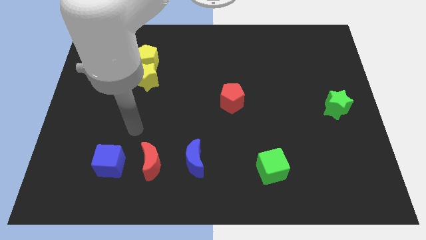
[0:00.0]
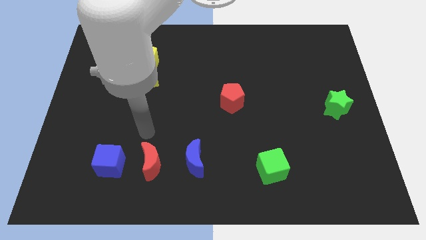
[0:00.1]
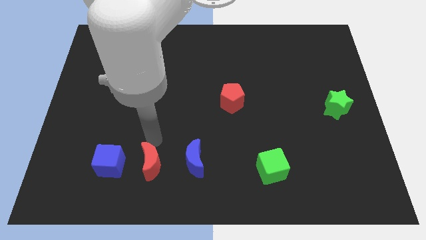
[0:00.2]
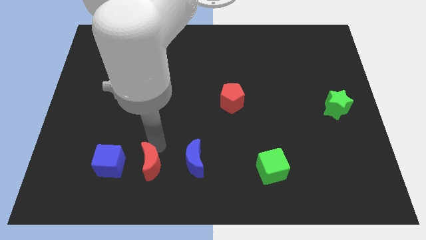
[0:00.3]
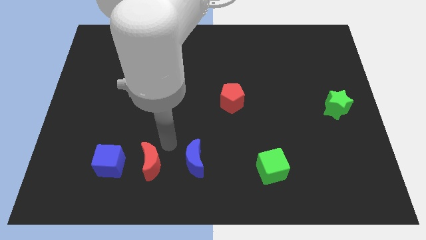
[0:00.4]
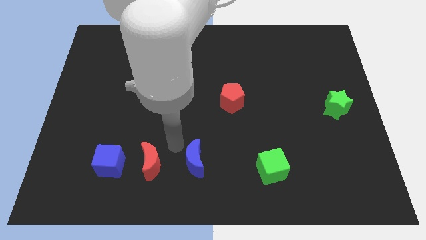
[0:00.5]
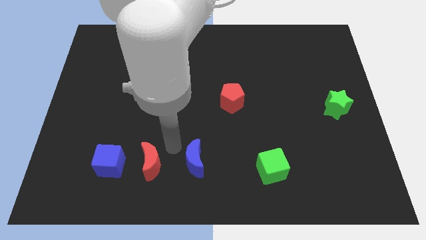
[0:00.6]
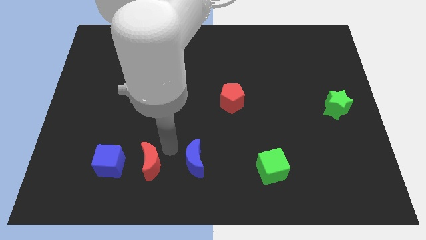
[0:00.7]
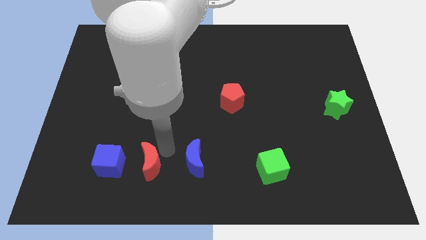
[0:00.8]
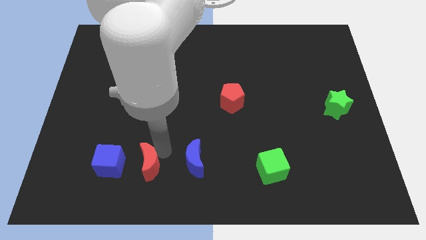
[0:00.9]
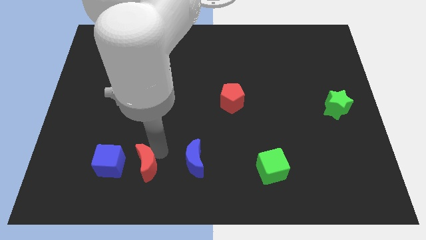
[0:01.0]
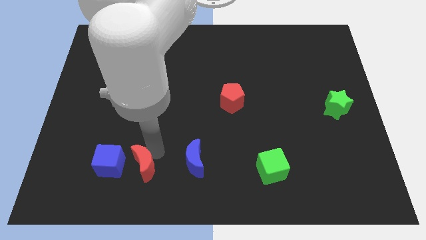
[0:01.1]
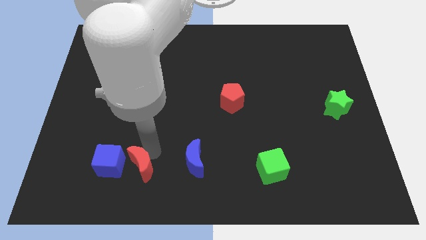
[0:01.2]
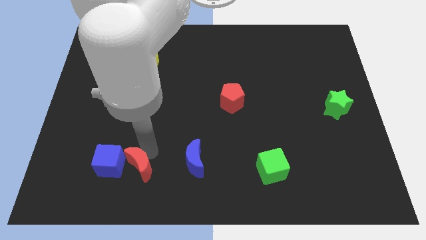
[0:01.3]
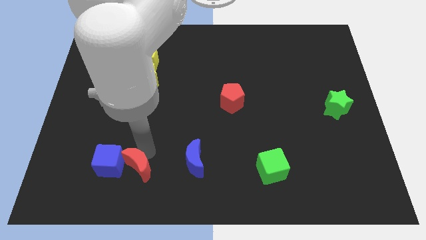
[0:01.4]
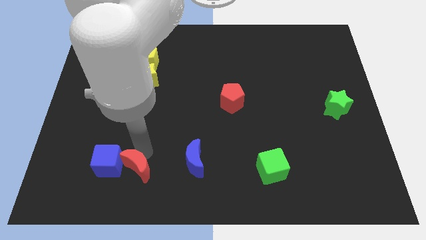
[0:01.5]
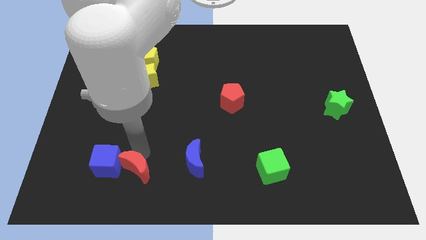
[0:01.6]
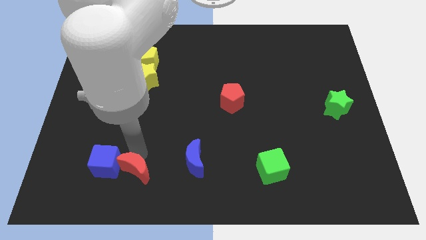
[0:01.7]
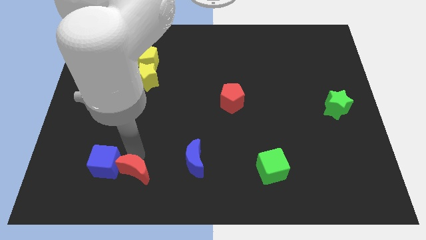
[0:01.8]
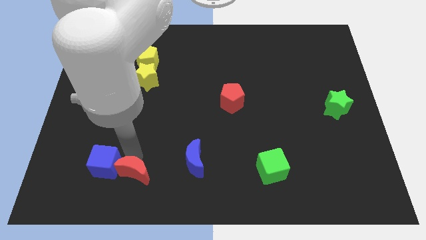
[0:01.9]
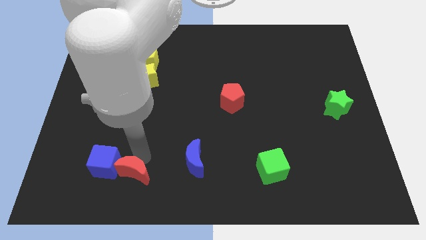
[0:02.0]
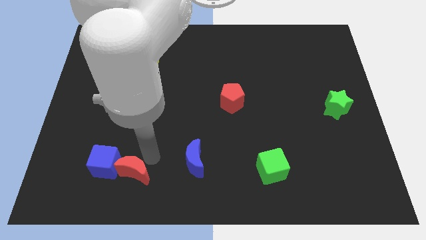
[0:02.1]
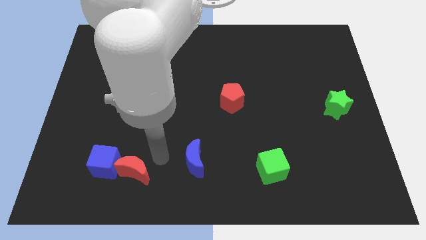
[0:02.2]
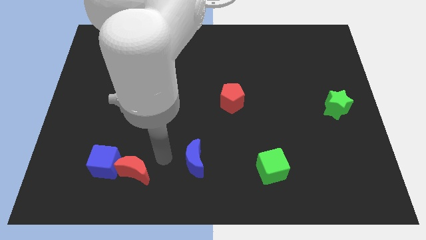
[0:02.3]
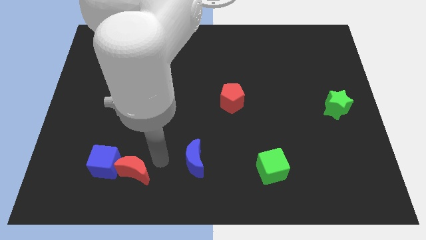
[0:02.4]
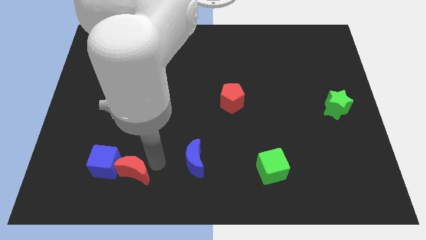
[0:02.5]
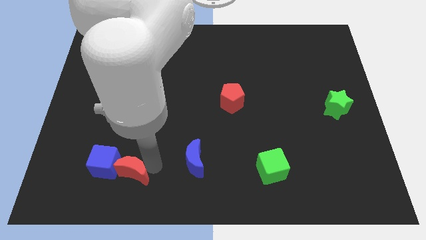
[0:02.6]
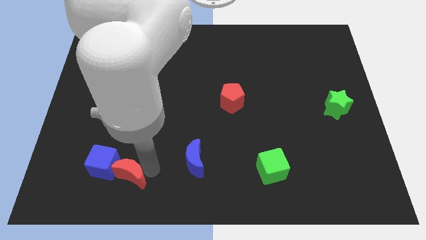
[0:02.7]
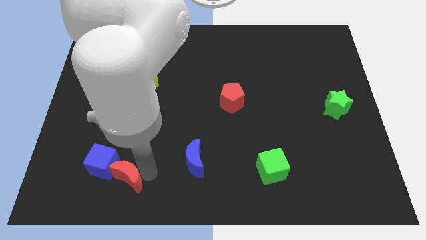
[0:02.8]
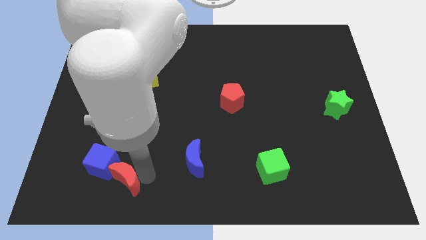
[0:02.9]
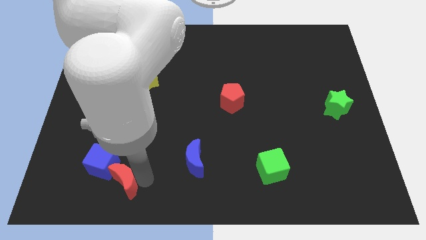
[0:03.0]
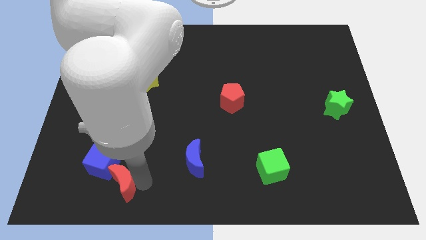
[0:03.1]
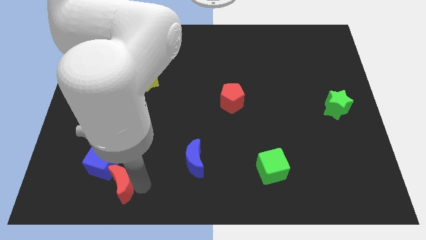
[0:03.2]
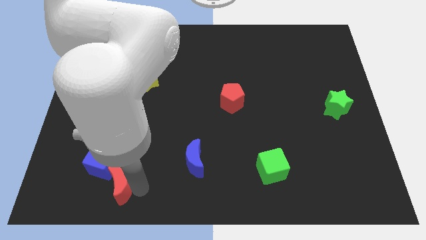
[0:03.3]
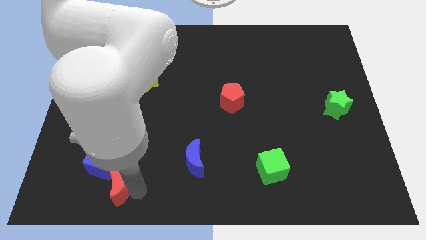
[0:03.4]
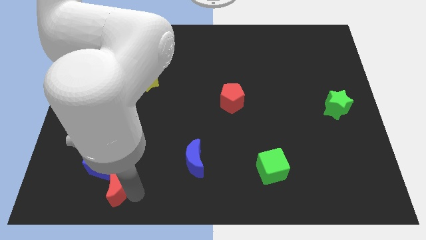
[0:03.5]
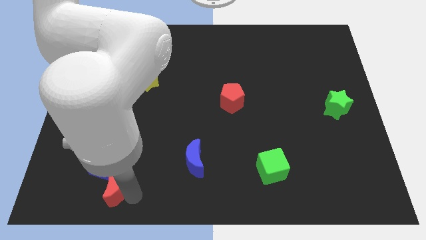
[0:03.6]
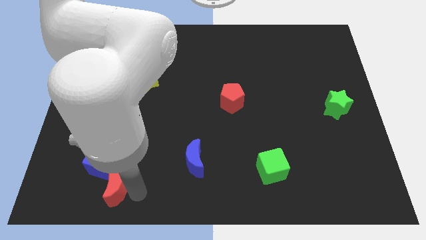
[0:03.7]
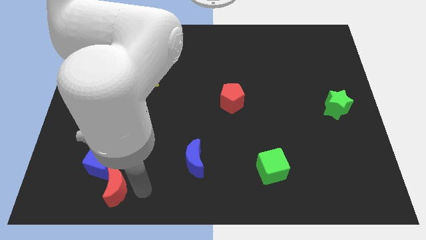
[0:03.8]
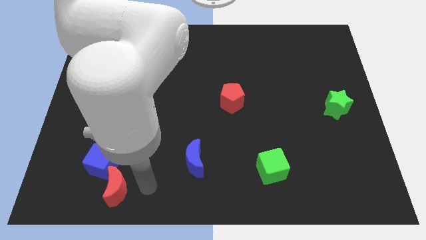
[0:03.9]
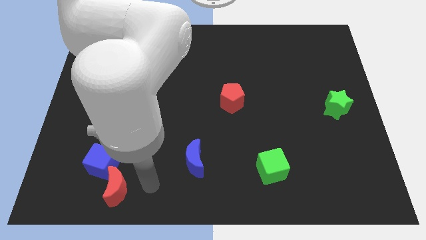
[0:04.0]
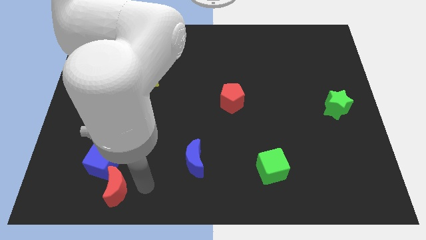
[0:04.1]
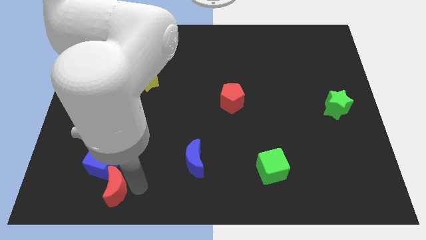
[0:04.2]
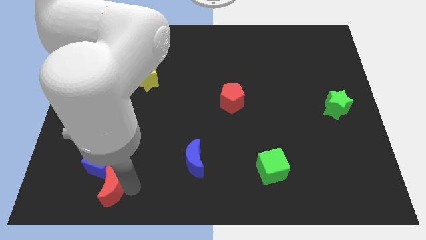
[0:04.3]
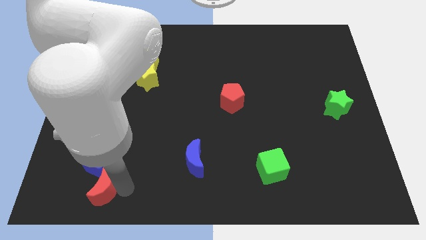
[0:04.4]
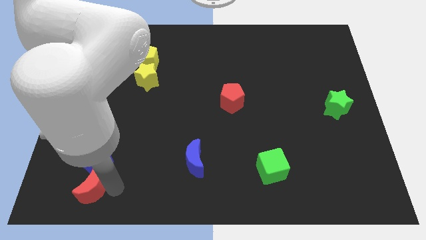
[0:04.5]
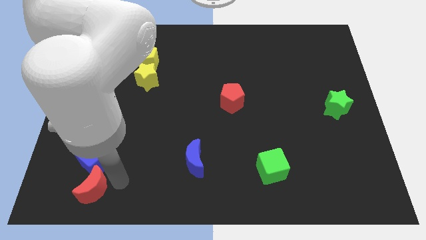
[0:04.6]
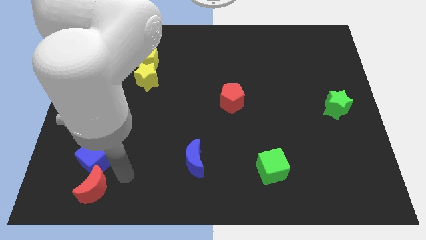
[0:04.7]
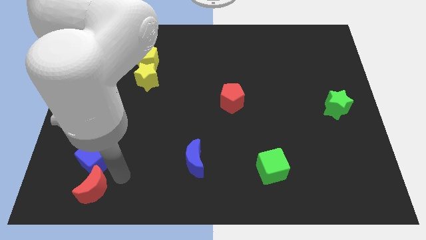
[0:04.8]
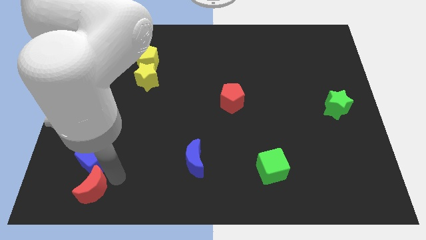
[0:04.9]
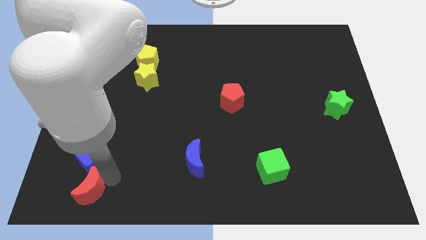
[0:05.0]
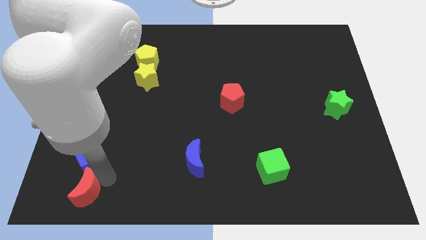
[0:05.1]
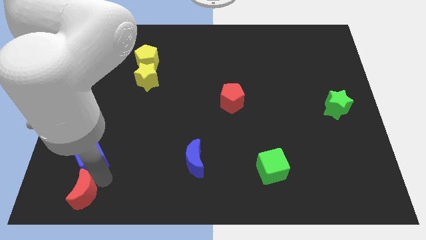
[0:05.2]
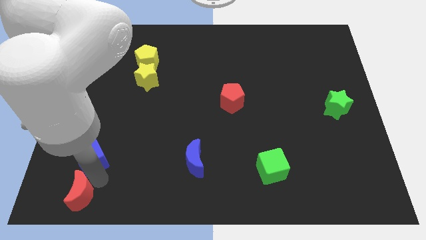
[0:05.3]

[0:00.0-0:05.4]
slide the red moon to the bottom left corner
